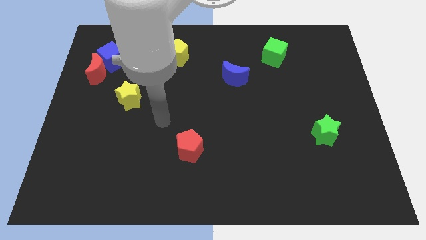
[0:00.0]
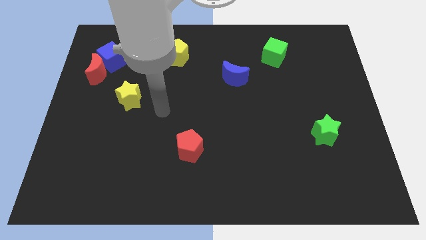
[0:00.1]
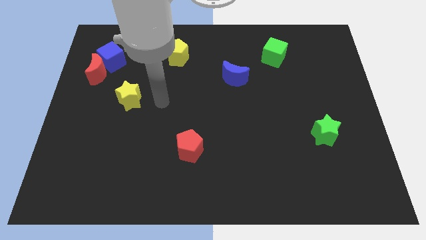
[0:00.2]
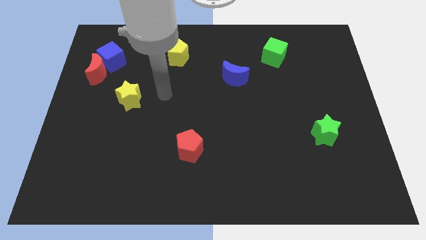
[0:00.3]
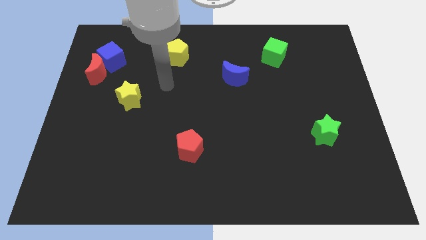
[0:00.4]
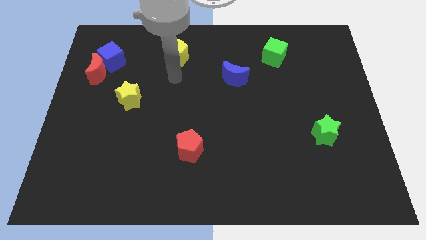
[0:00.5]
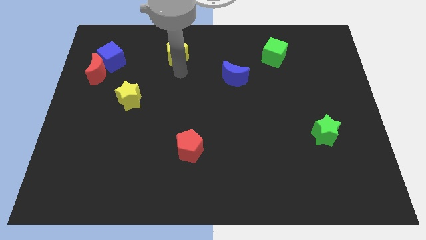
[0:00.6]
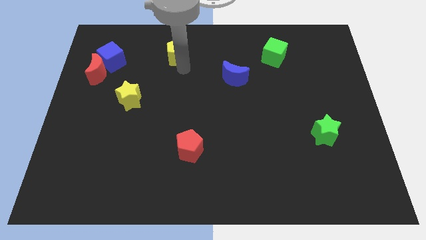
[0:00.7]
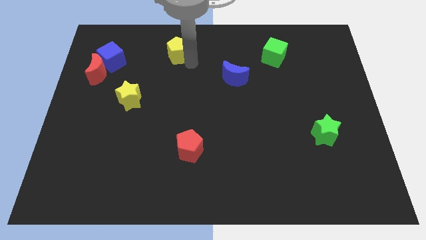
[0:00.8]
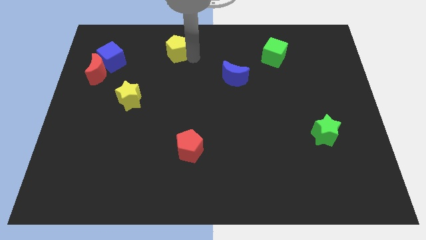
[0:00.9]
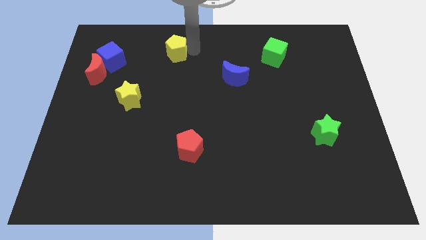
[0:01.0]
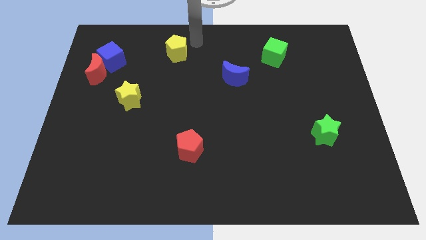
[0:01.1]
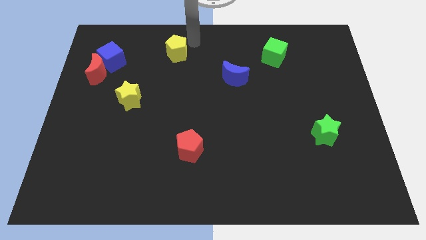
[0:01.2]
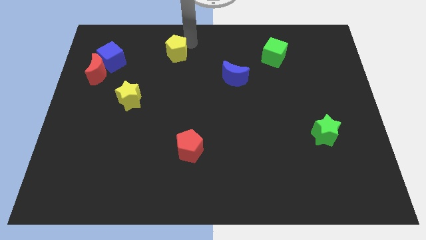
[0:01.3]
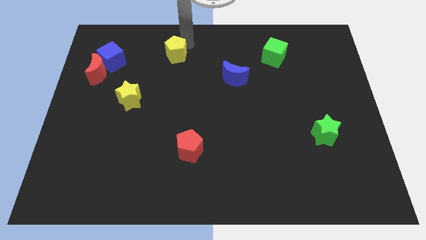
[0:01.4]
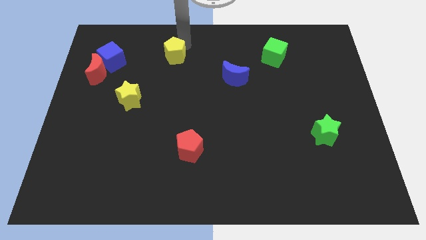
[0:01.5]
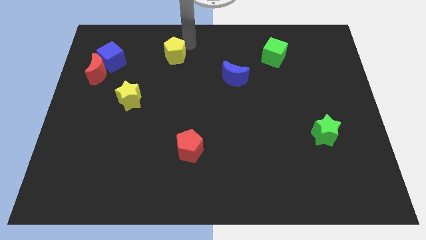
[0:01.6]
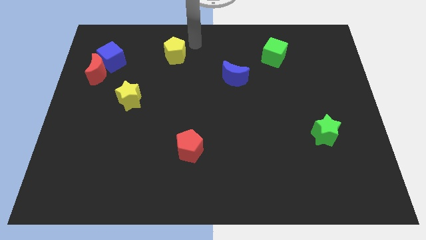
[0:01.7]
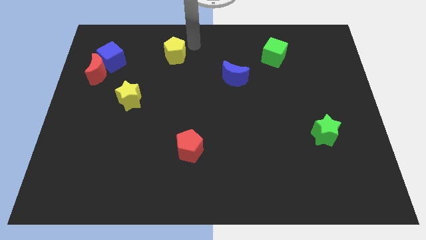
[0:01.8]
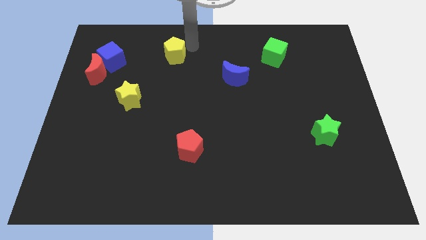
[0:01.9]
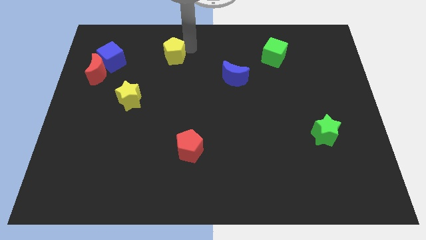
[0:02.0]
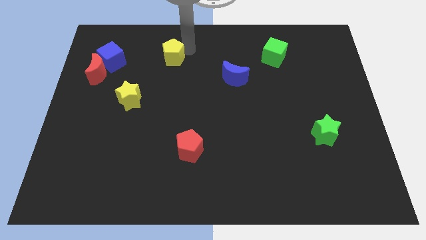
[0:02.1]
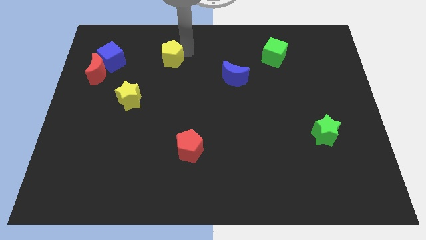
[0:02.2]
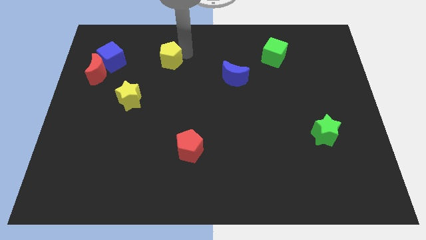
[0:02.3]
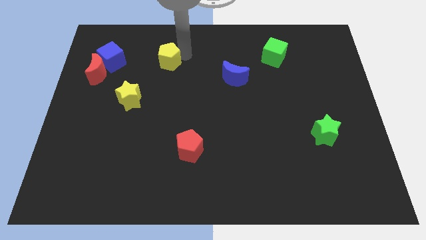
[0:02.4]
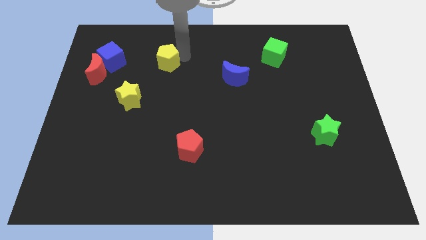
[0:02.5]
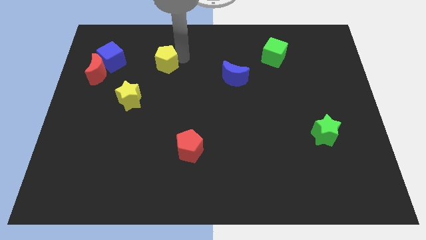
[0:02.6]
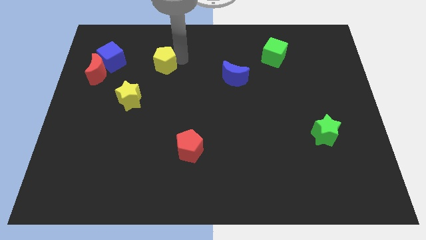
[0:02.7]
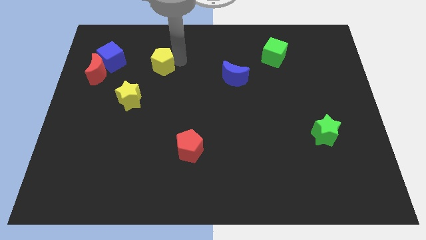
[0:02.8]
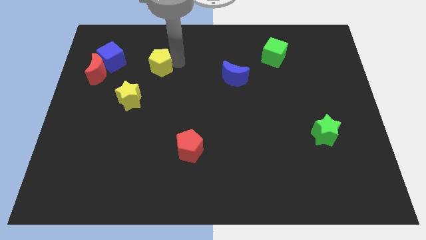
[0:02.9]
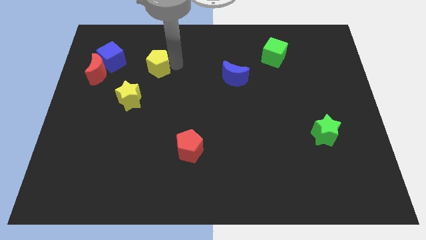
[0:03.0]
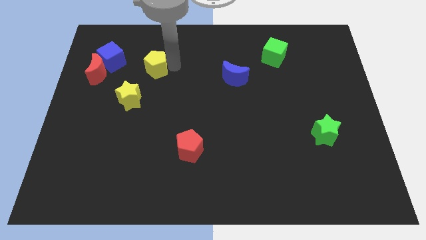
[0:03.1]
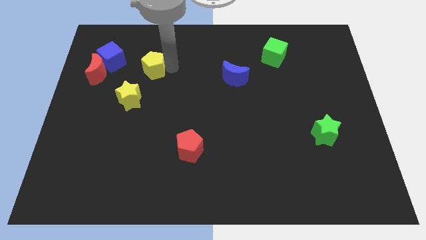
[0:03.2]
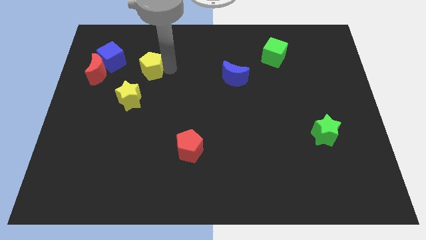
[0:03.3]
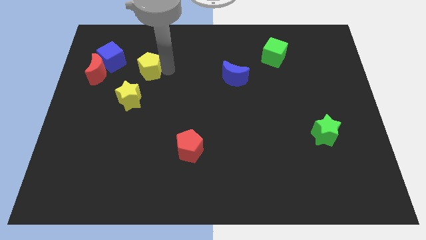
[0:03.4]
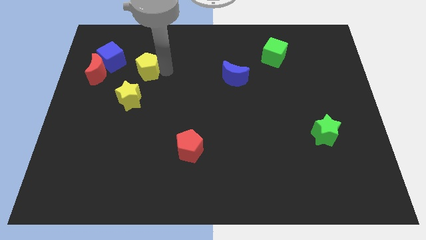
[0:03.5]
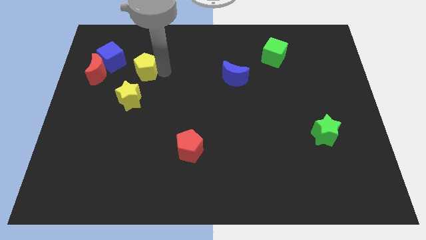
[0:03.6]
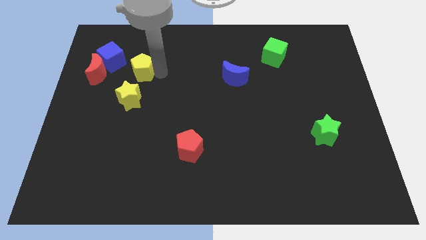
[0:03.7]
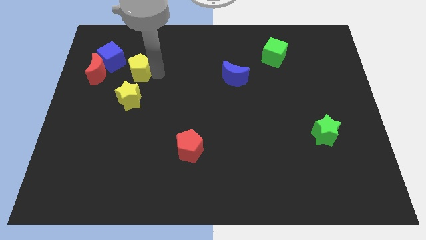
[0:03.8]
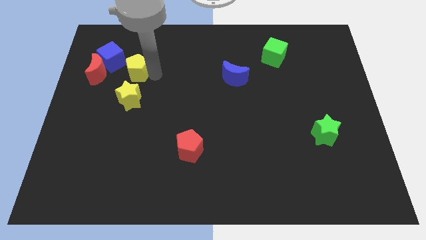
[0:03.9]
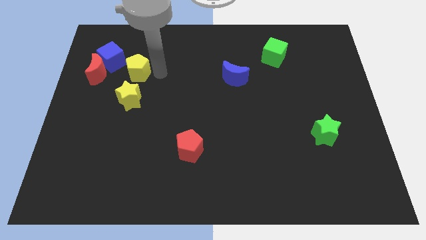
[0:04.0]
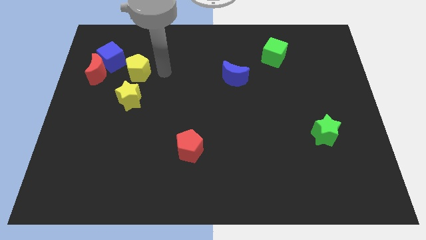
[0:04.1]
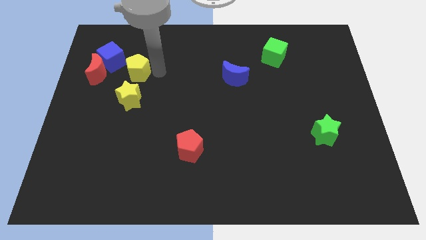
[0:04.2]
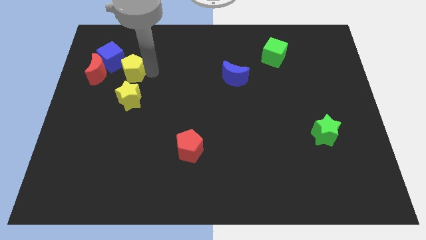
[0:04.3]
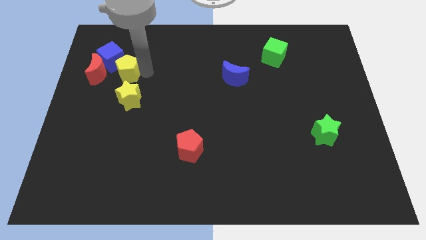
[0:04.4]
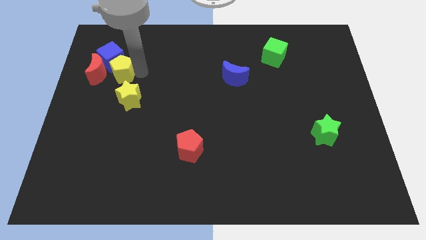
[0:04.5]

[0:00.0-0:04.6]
move the yellow pentagon to the red moon

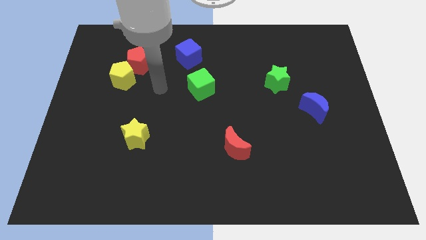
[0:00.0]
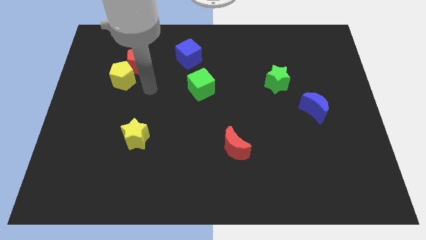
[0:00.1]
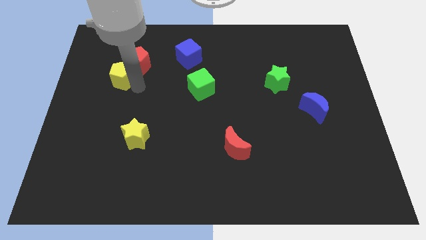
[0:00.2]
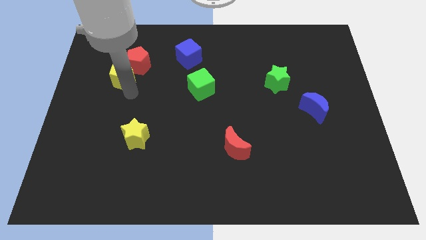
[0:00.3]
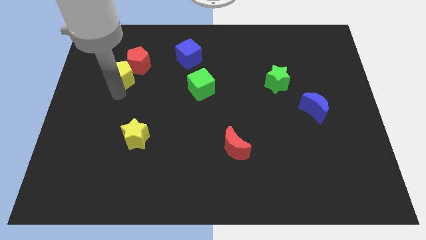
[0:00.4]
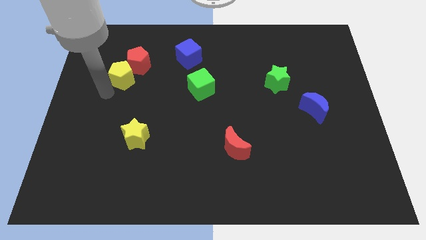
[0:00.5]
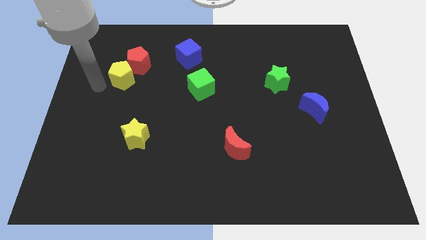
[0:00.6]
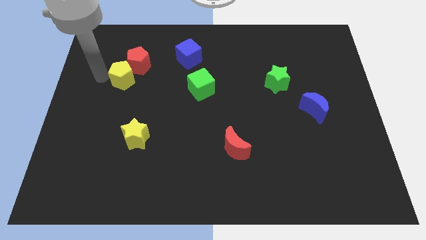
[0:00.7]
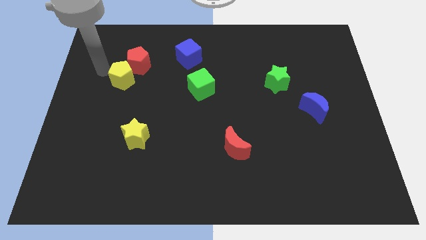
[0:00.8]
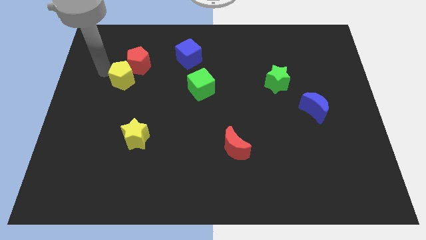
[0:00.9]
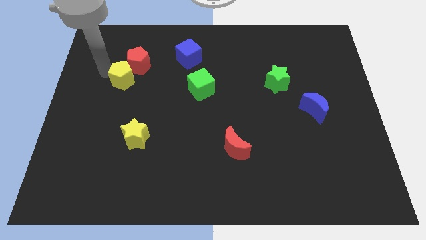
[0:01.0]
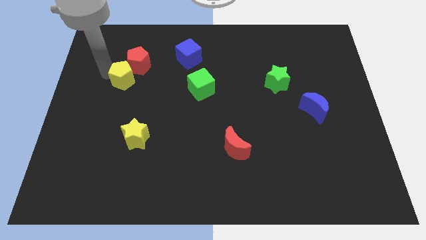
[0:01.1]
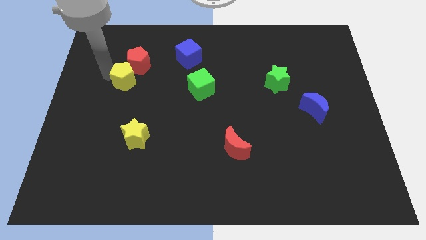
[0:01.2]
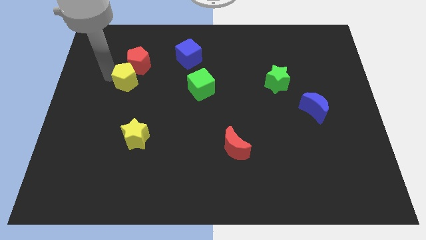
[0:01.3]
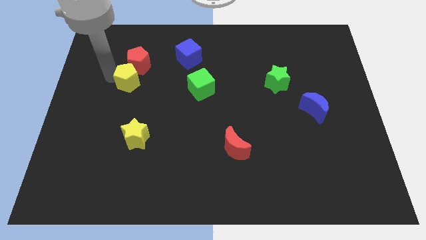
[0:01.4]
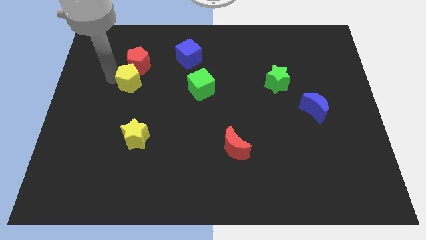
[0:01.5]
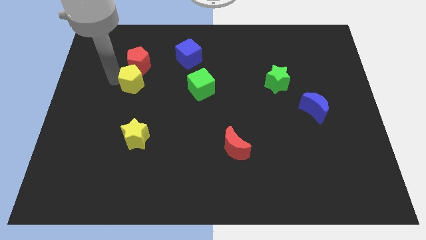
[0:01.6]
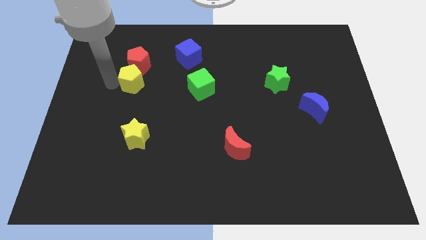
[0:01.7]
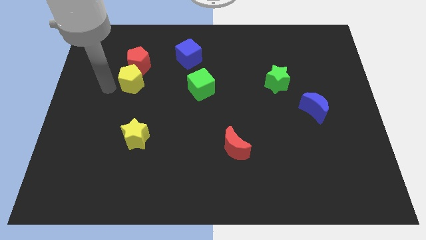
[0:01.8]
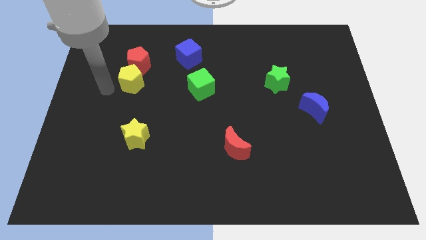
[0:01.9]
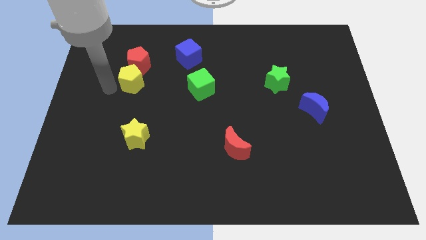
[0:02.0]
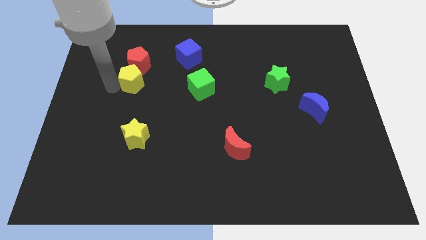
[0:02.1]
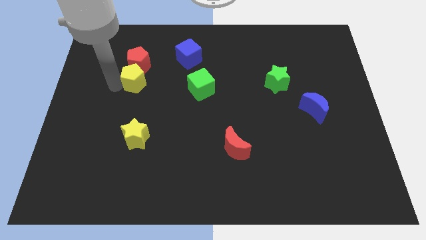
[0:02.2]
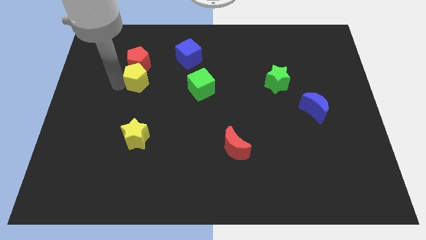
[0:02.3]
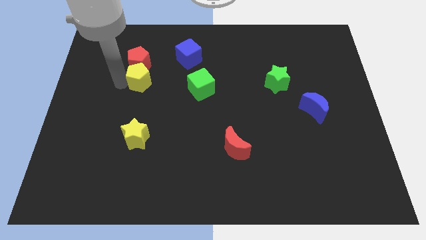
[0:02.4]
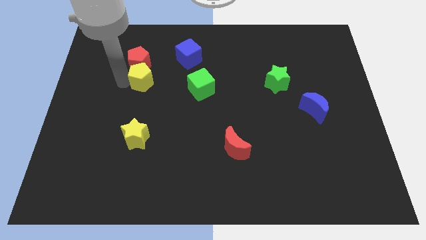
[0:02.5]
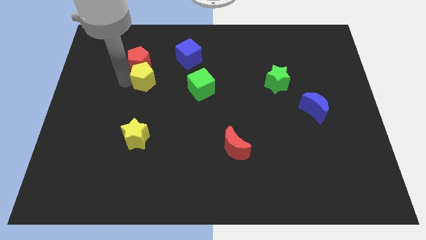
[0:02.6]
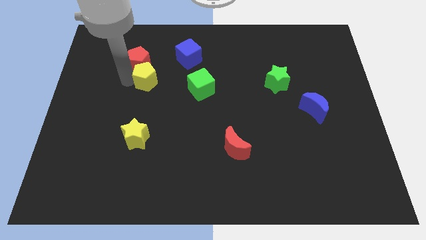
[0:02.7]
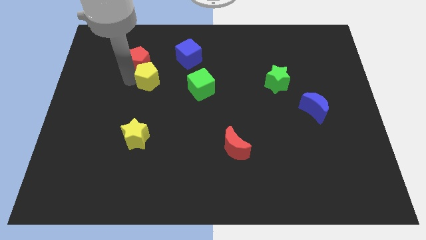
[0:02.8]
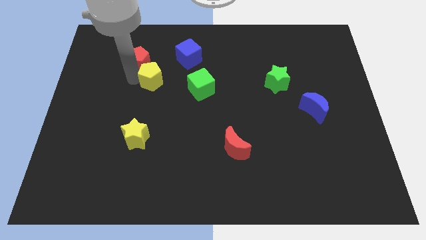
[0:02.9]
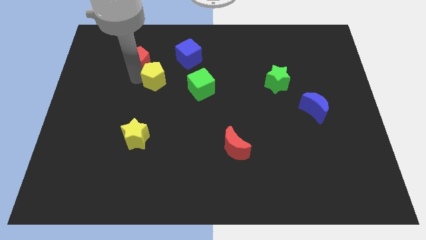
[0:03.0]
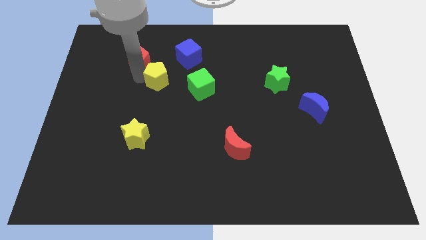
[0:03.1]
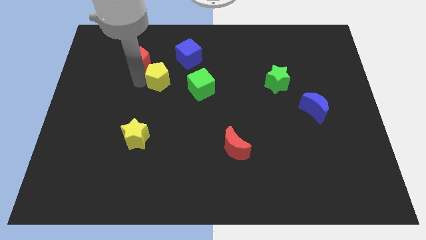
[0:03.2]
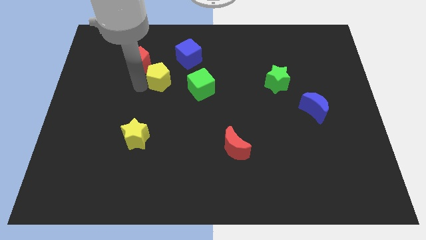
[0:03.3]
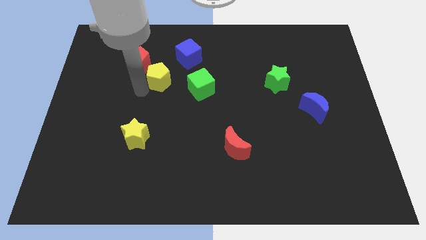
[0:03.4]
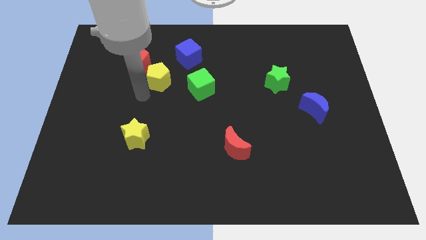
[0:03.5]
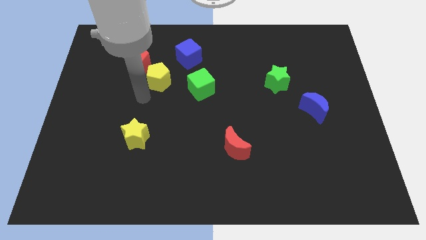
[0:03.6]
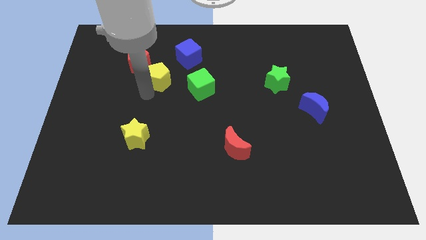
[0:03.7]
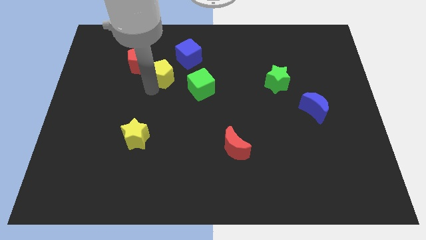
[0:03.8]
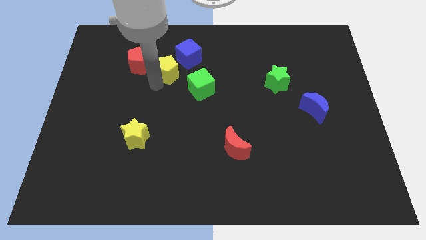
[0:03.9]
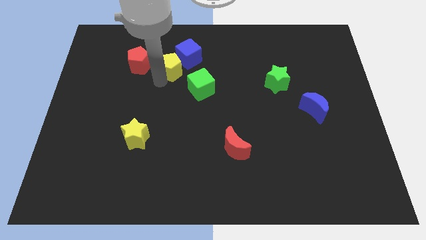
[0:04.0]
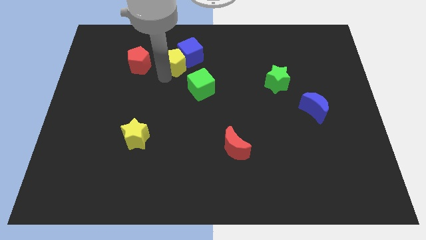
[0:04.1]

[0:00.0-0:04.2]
move the yellow pentagon next to the blue cube
